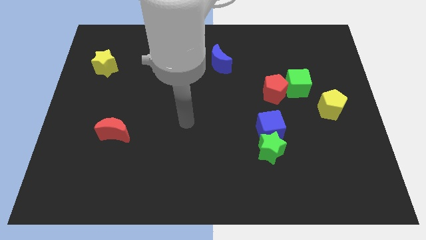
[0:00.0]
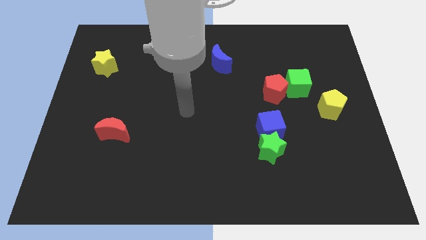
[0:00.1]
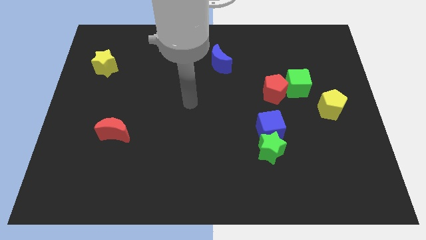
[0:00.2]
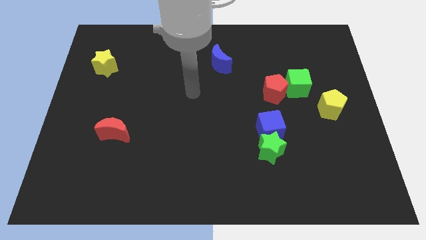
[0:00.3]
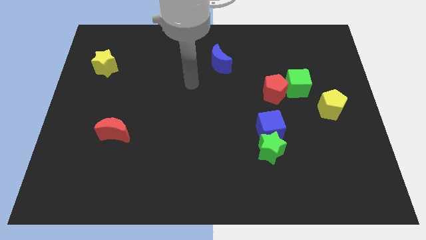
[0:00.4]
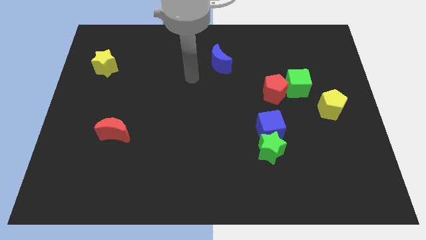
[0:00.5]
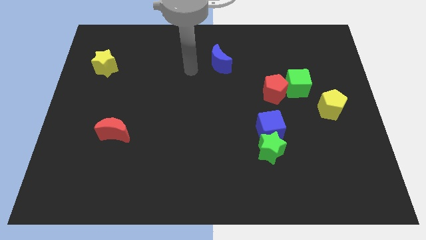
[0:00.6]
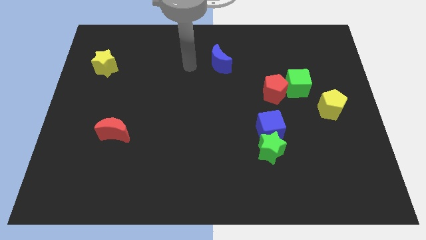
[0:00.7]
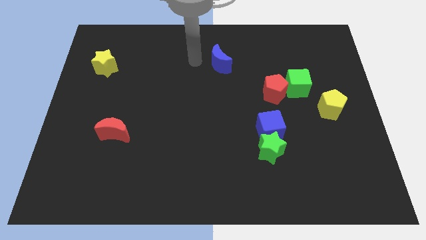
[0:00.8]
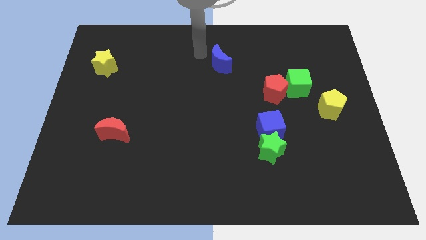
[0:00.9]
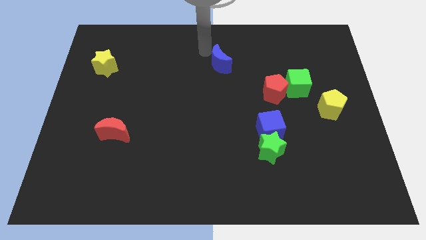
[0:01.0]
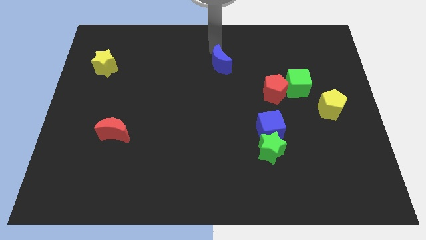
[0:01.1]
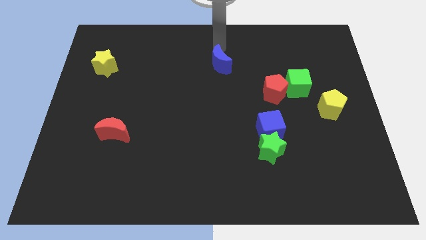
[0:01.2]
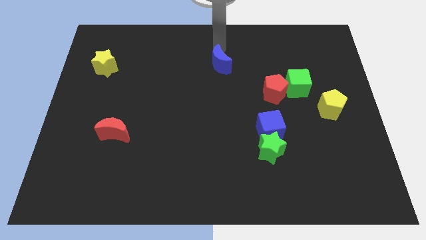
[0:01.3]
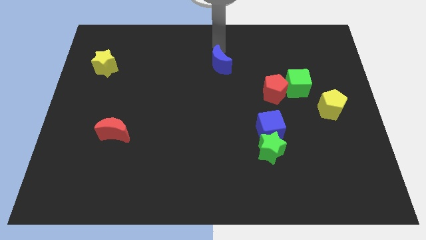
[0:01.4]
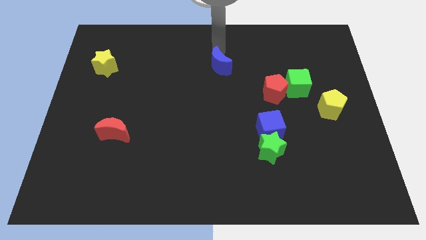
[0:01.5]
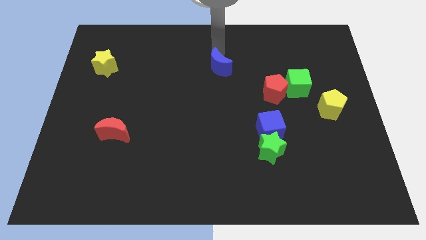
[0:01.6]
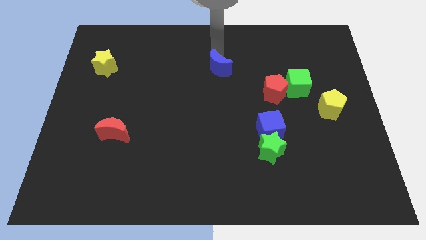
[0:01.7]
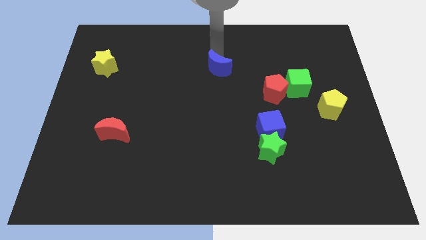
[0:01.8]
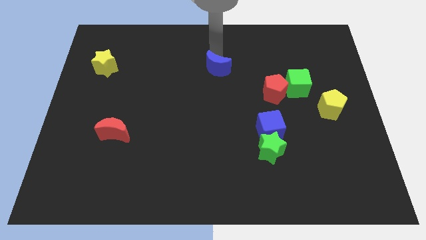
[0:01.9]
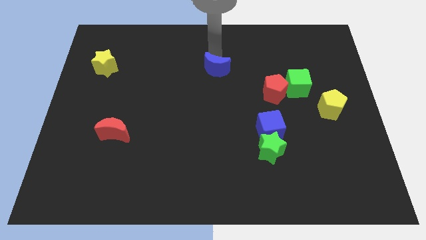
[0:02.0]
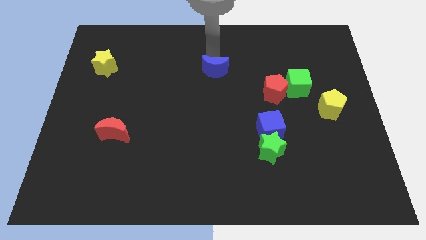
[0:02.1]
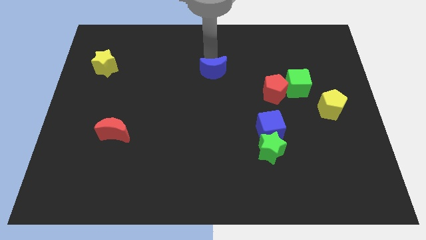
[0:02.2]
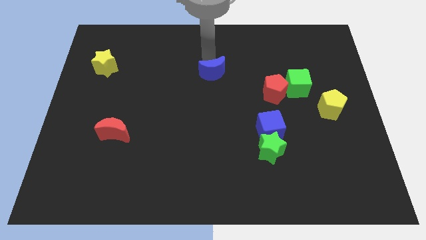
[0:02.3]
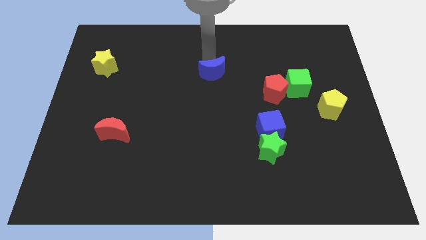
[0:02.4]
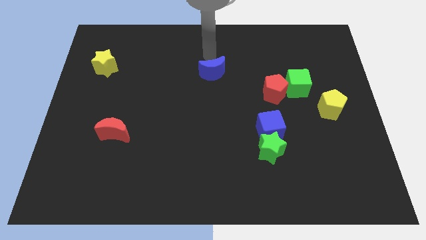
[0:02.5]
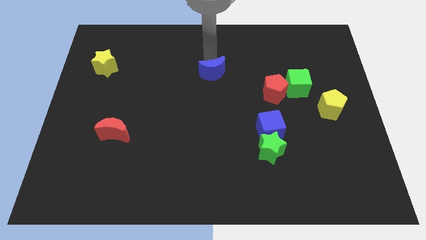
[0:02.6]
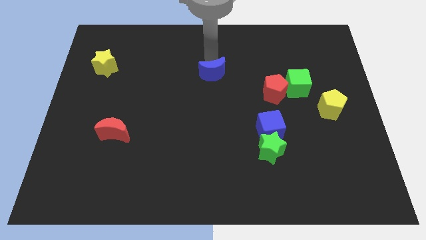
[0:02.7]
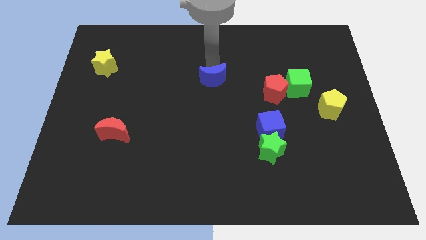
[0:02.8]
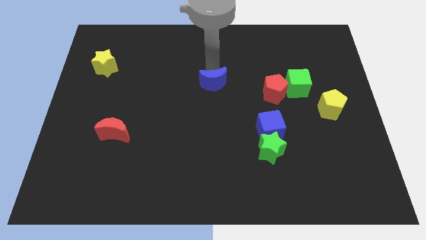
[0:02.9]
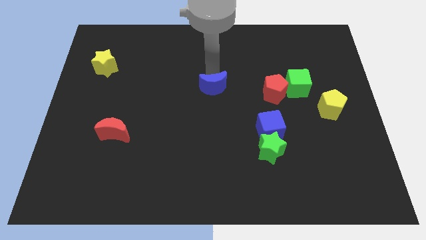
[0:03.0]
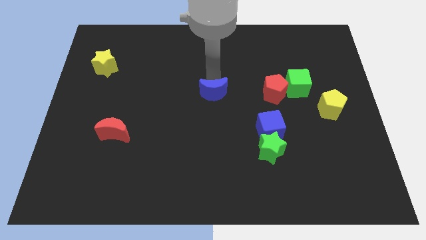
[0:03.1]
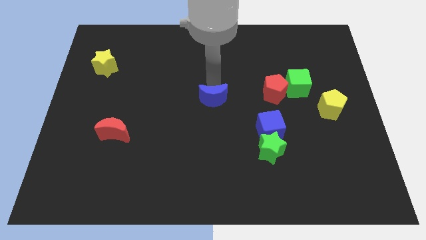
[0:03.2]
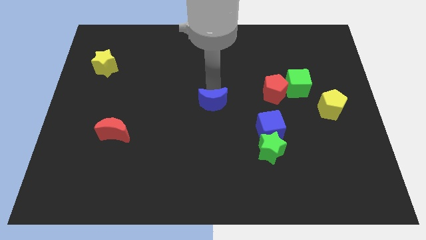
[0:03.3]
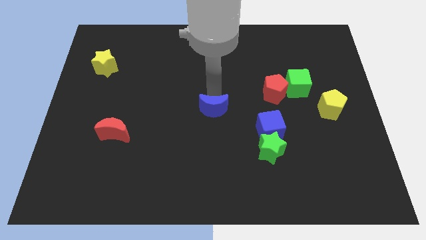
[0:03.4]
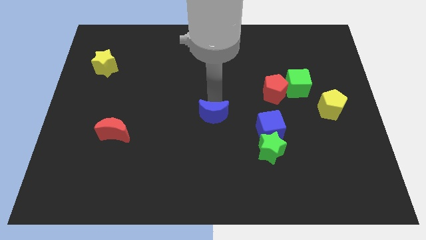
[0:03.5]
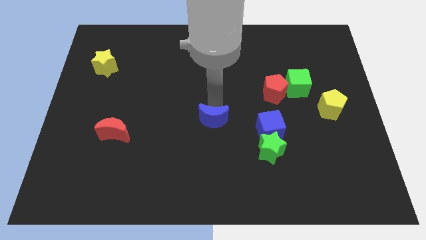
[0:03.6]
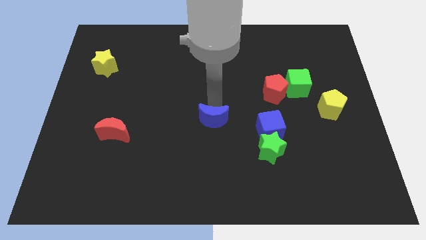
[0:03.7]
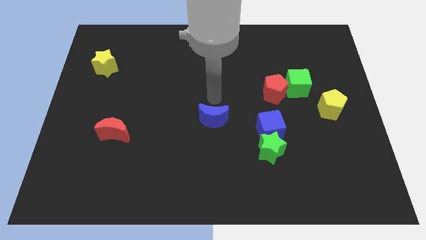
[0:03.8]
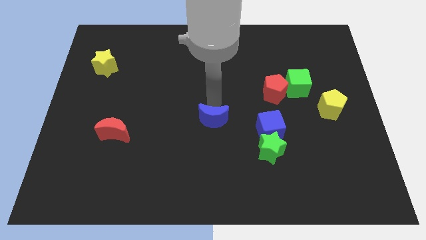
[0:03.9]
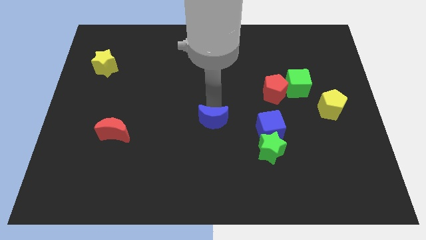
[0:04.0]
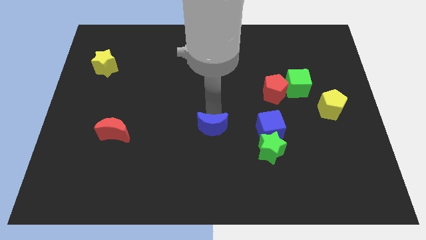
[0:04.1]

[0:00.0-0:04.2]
push the blue moon down

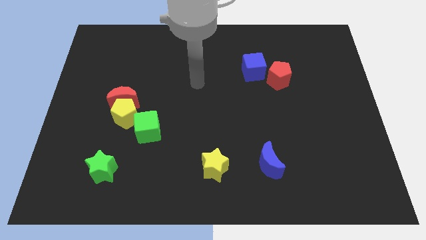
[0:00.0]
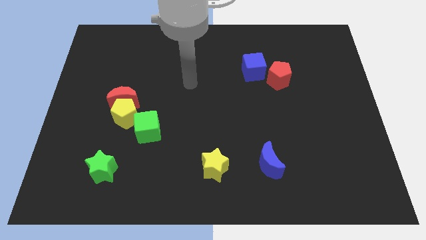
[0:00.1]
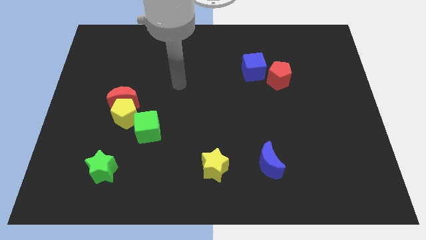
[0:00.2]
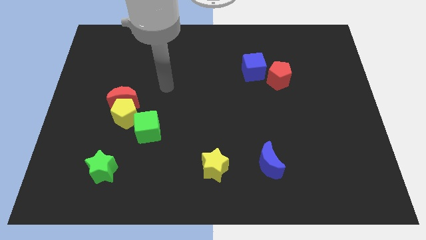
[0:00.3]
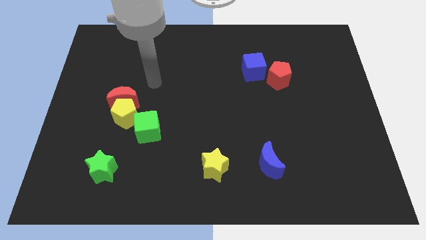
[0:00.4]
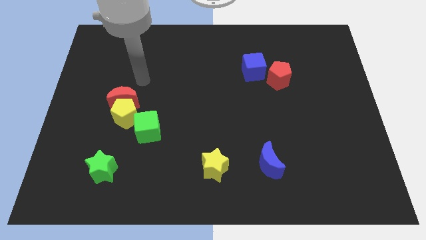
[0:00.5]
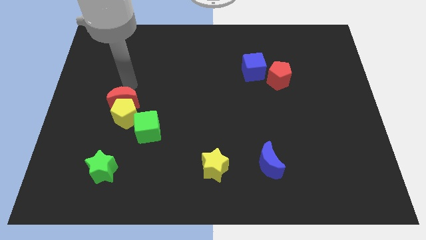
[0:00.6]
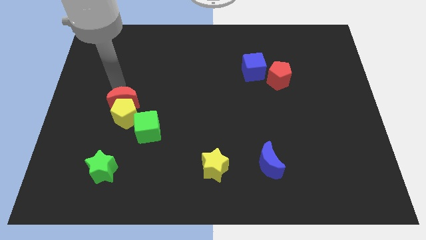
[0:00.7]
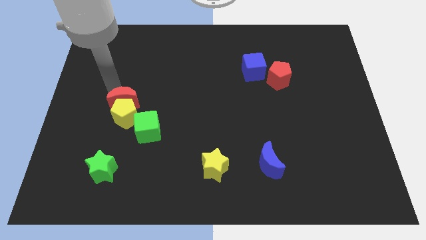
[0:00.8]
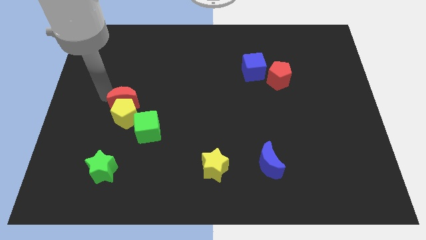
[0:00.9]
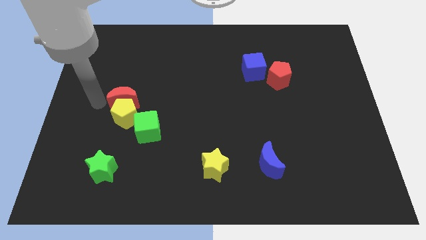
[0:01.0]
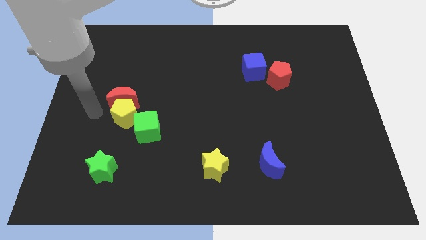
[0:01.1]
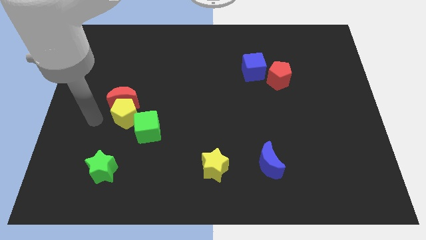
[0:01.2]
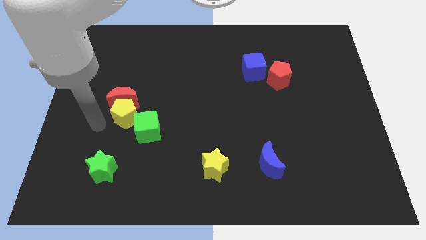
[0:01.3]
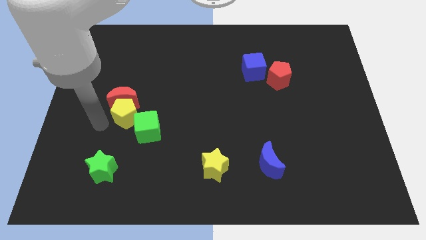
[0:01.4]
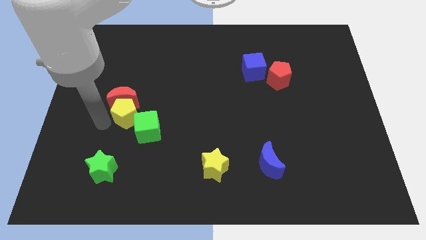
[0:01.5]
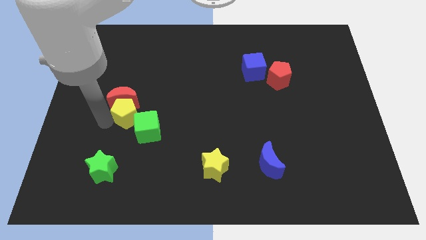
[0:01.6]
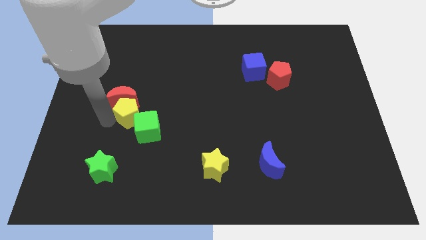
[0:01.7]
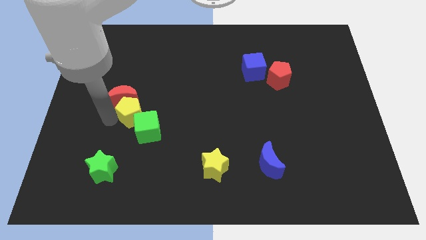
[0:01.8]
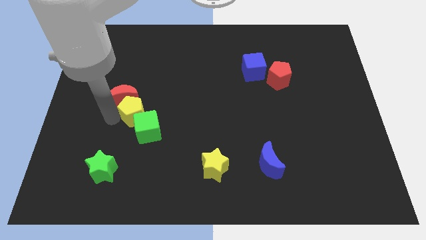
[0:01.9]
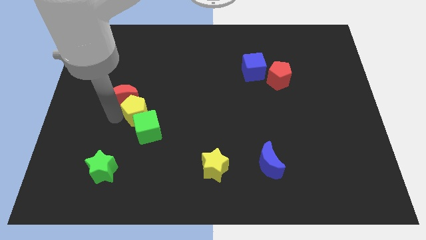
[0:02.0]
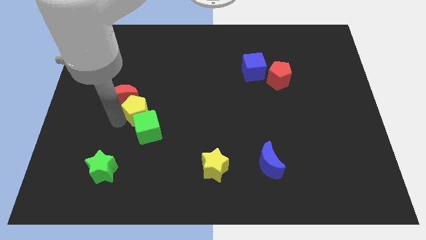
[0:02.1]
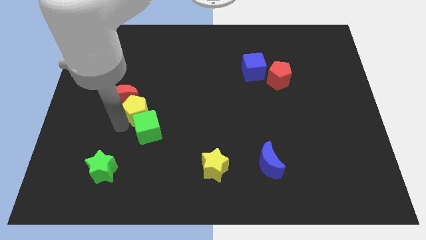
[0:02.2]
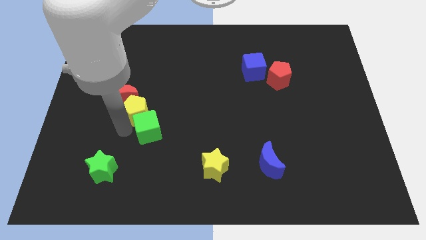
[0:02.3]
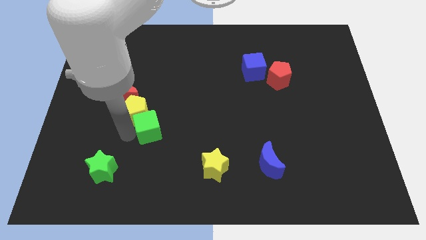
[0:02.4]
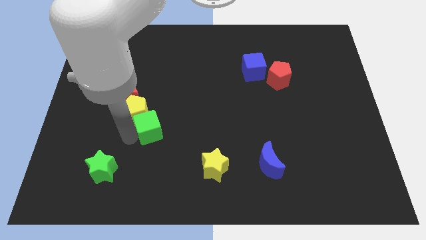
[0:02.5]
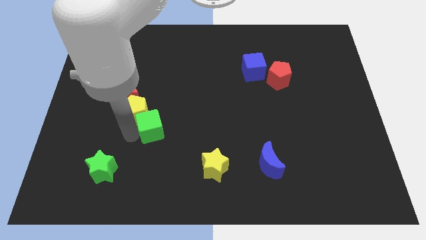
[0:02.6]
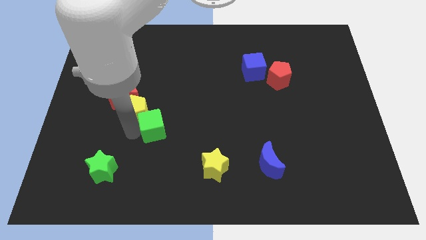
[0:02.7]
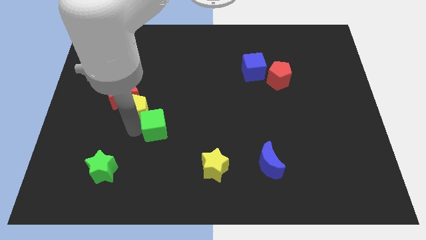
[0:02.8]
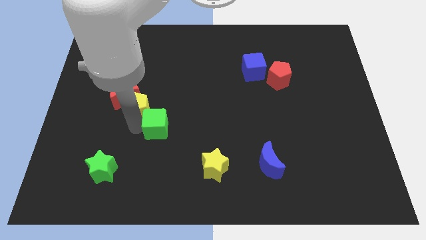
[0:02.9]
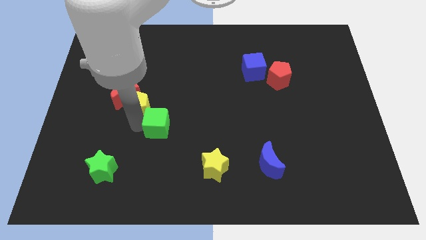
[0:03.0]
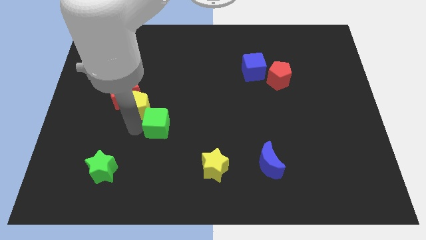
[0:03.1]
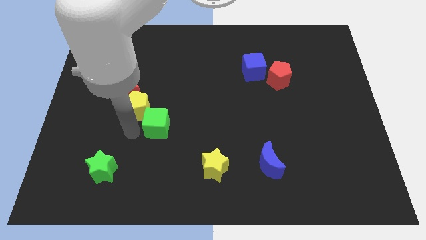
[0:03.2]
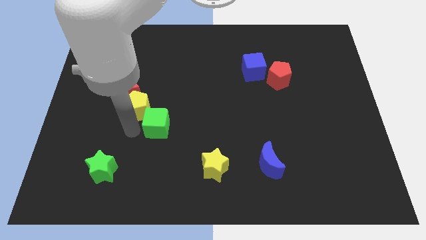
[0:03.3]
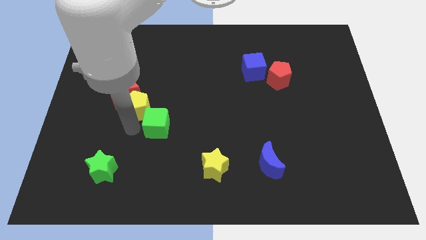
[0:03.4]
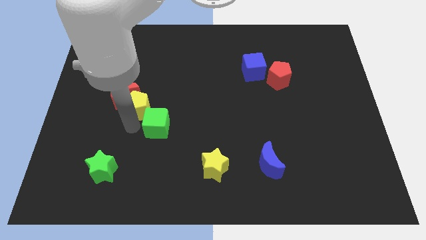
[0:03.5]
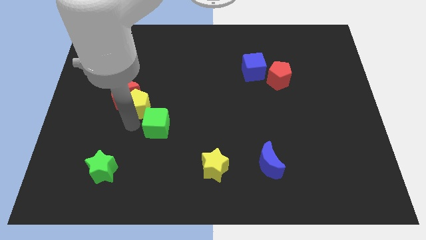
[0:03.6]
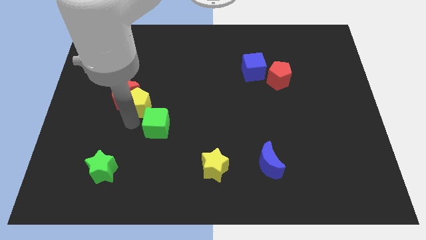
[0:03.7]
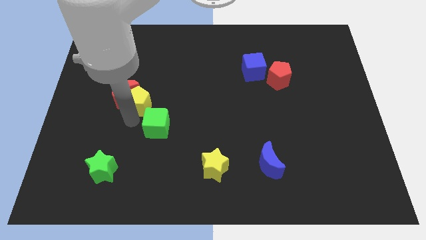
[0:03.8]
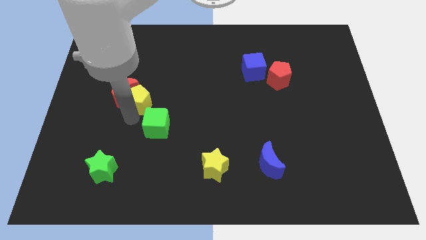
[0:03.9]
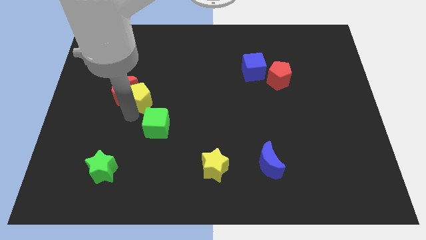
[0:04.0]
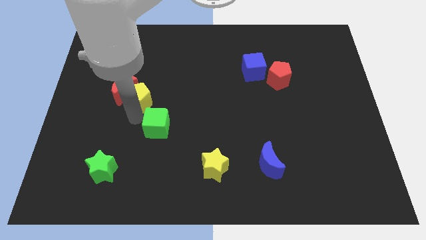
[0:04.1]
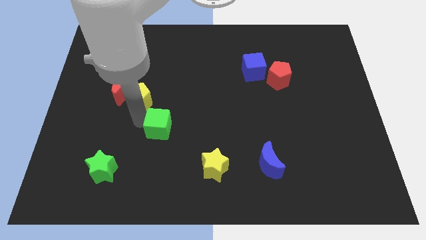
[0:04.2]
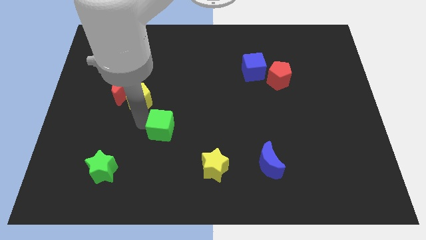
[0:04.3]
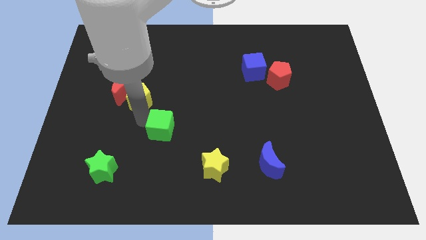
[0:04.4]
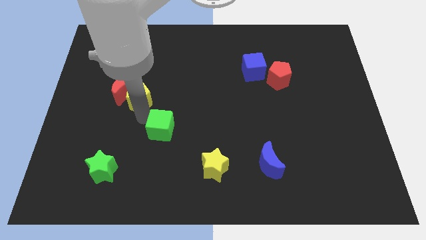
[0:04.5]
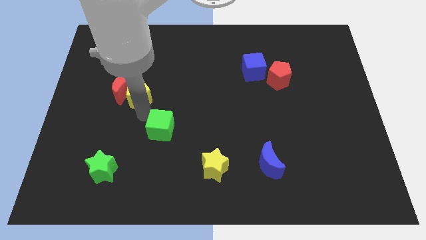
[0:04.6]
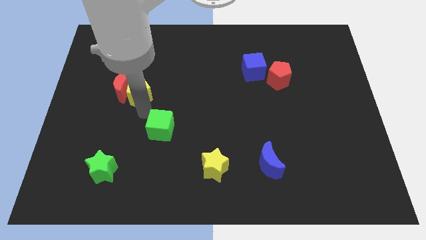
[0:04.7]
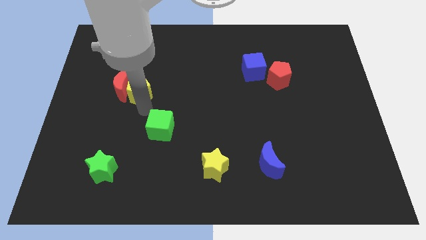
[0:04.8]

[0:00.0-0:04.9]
slightly slide the yellow pentagon up
